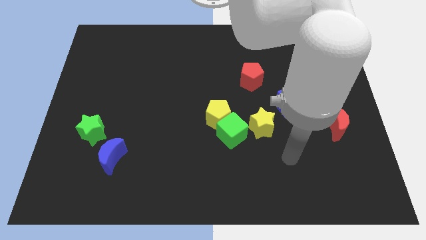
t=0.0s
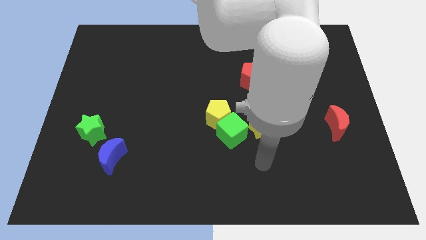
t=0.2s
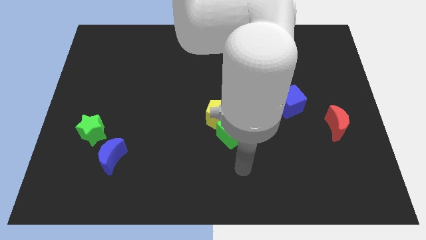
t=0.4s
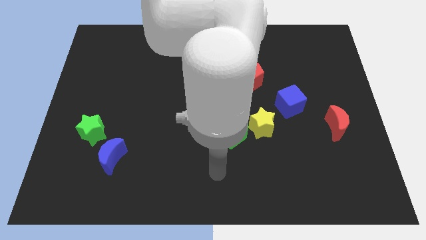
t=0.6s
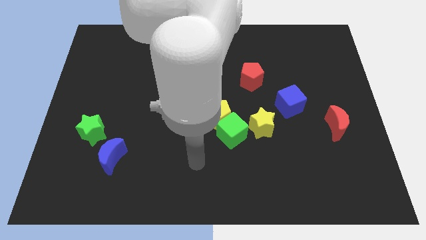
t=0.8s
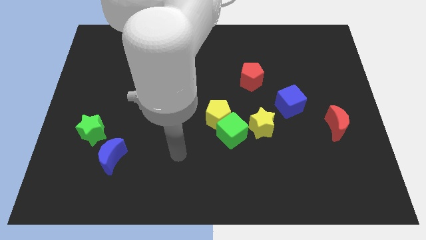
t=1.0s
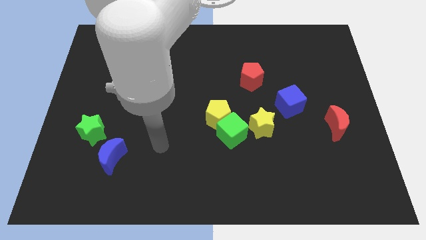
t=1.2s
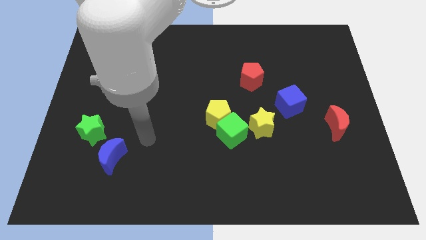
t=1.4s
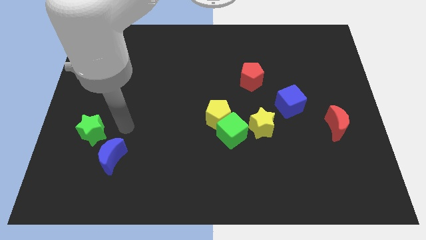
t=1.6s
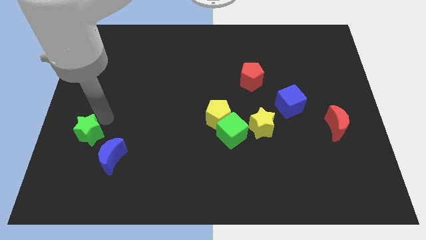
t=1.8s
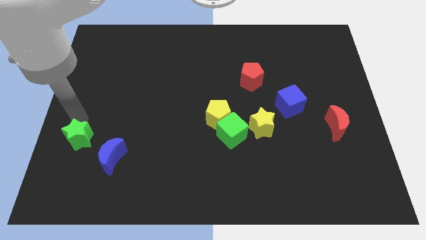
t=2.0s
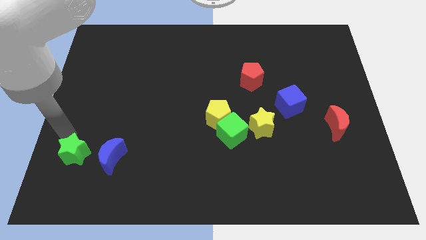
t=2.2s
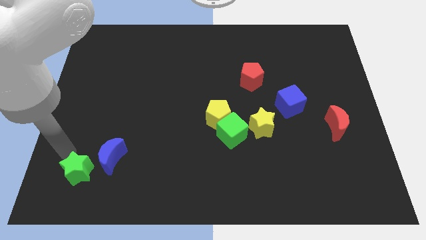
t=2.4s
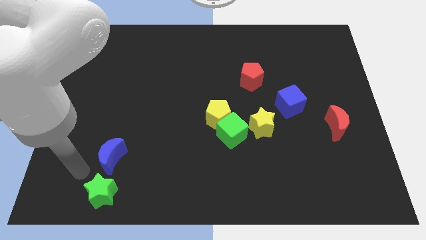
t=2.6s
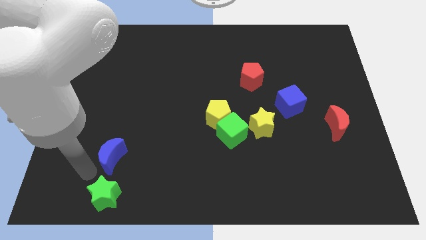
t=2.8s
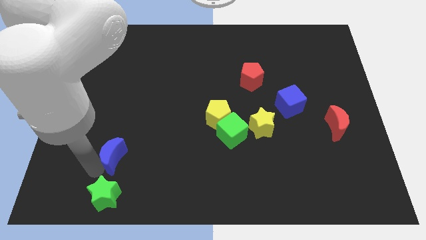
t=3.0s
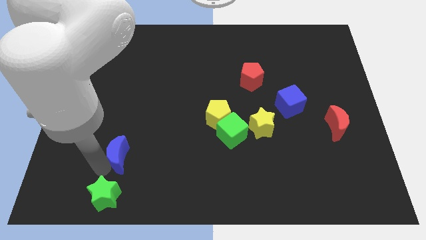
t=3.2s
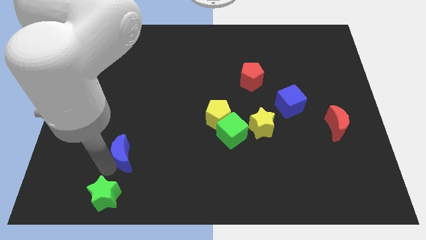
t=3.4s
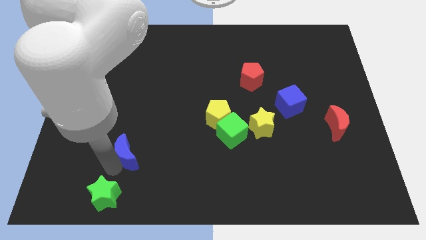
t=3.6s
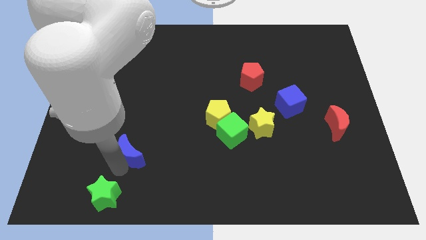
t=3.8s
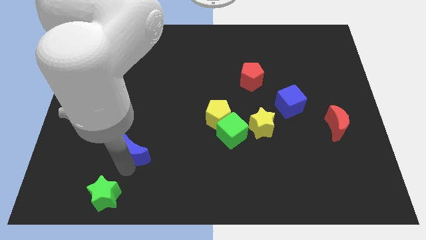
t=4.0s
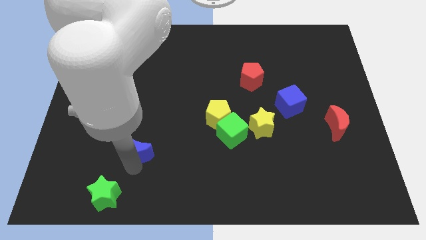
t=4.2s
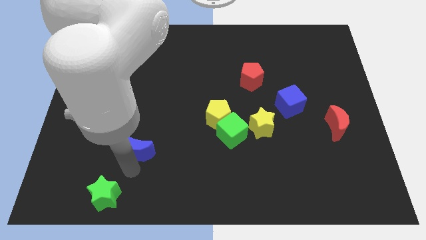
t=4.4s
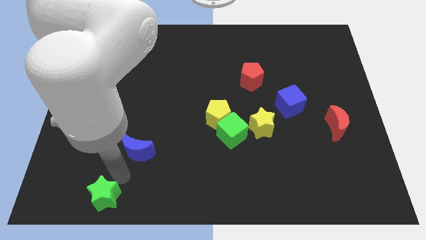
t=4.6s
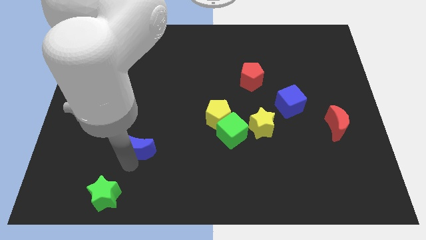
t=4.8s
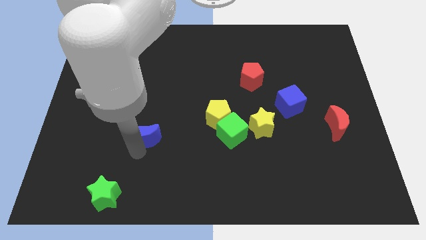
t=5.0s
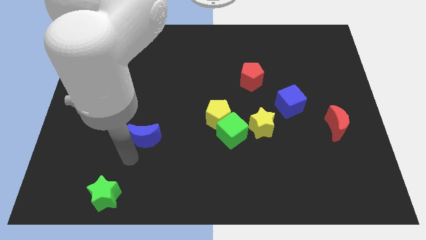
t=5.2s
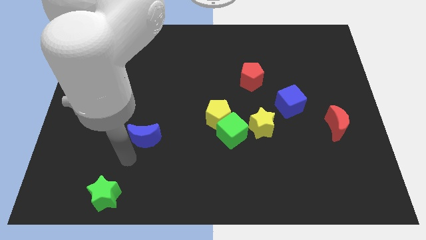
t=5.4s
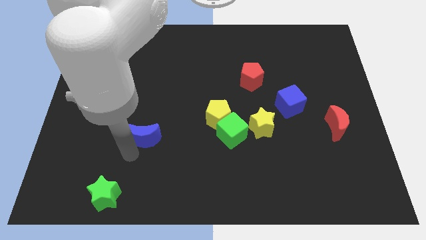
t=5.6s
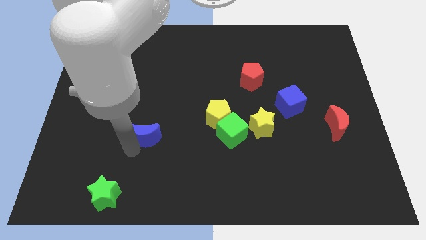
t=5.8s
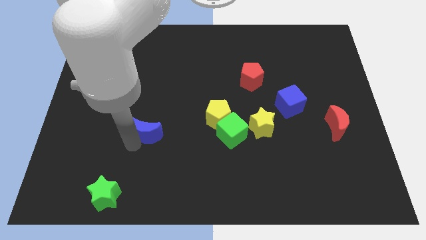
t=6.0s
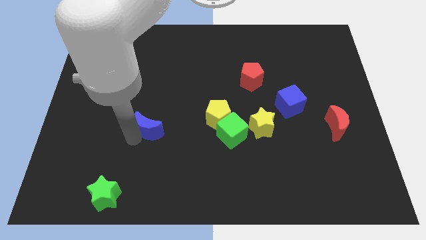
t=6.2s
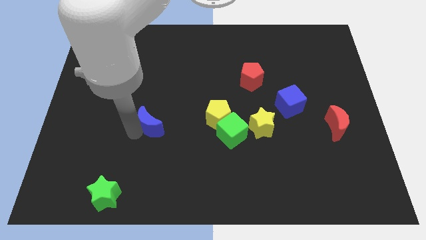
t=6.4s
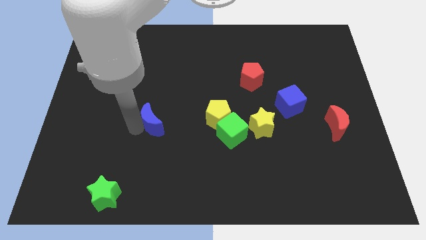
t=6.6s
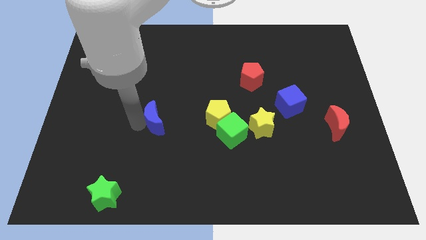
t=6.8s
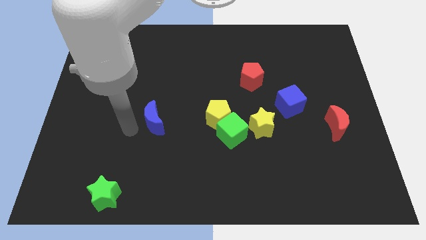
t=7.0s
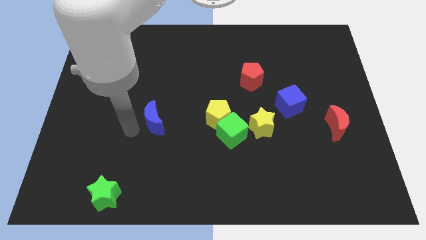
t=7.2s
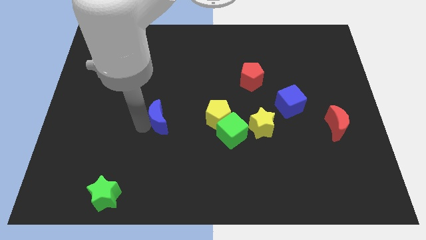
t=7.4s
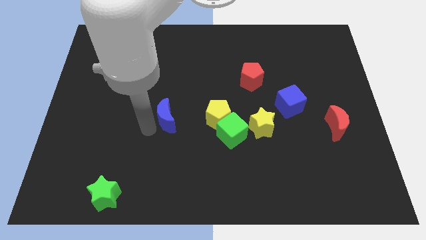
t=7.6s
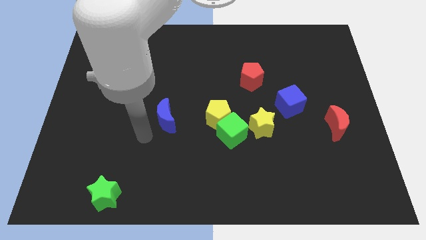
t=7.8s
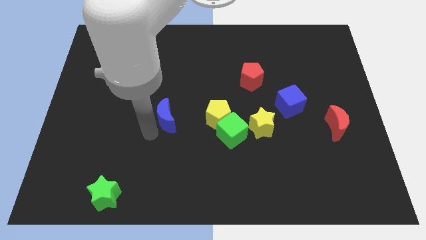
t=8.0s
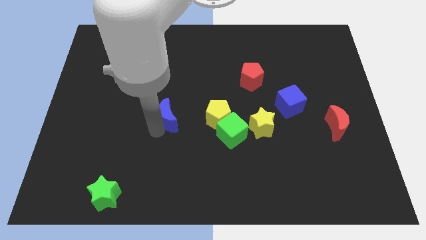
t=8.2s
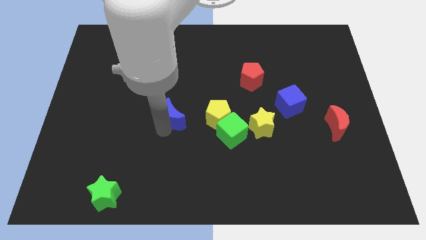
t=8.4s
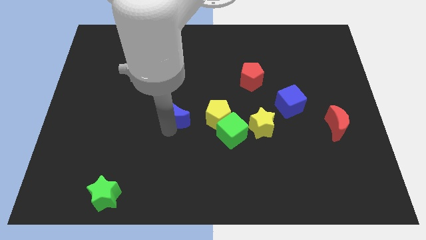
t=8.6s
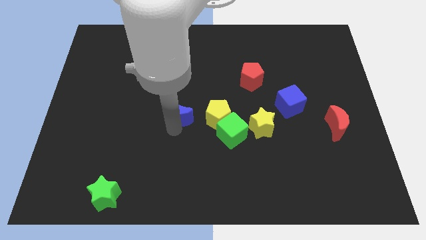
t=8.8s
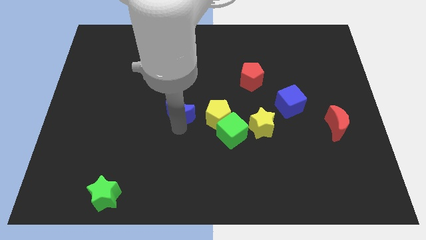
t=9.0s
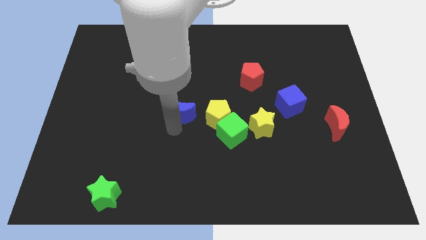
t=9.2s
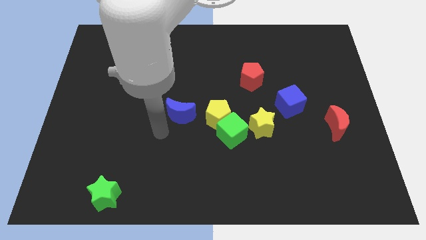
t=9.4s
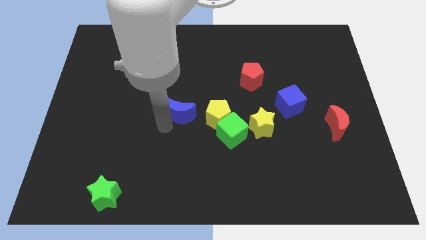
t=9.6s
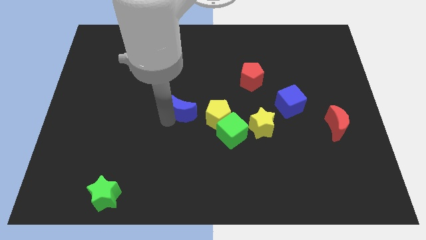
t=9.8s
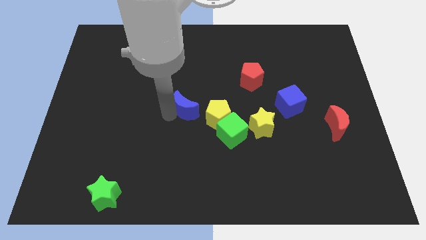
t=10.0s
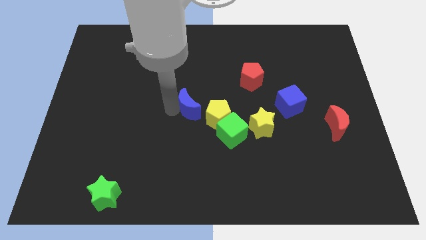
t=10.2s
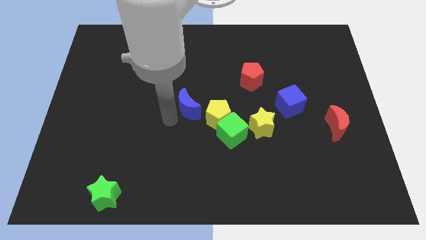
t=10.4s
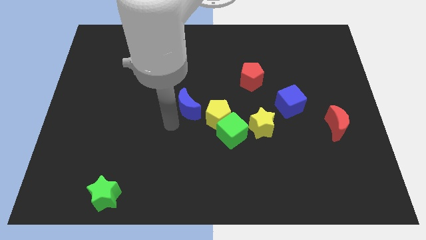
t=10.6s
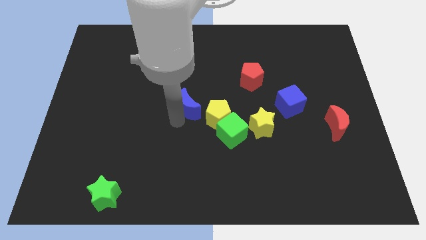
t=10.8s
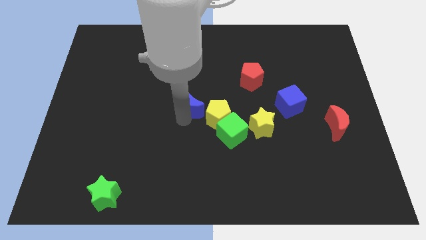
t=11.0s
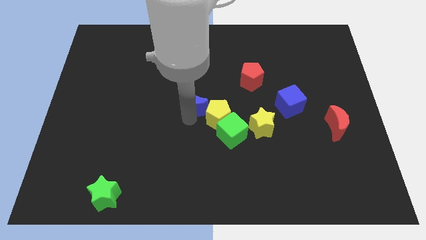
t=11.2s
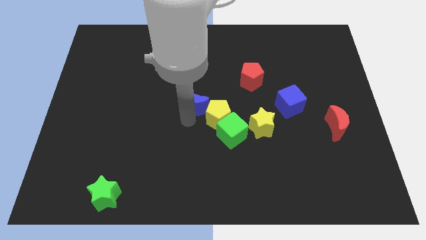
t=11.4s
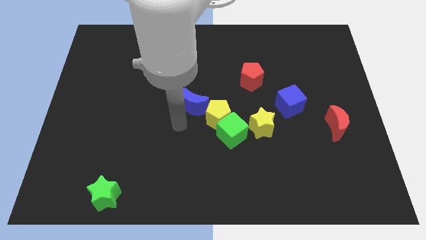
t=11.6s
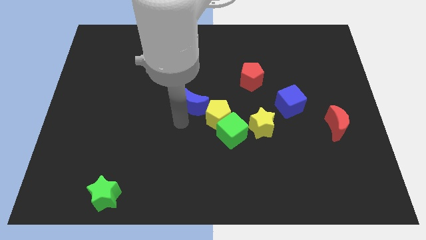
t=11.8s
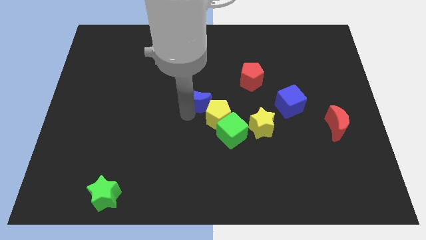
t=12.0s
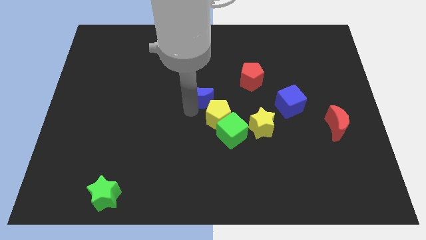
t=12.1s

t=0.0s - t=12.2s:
put the blue moon above the yellow pentagon

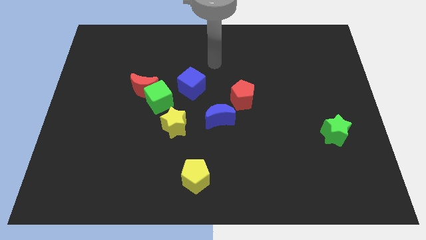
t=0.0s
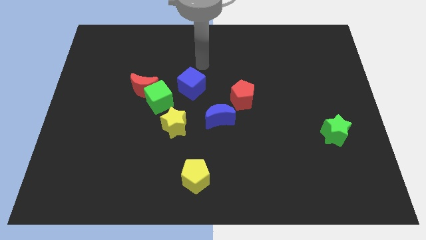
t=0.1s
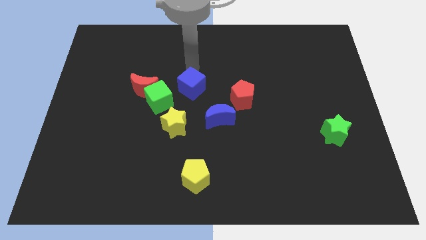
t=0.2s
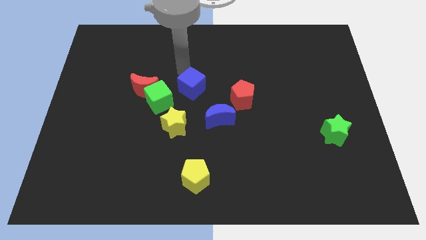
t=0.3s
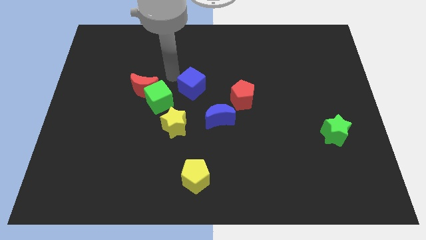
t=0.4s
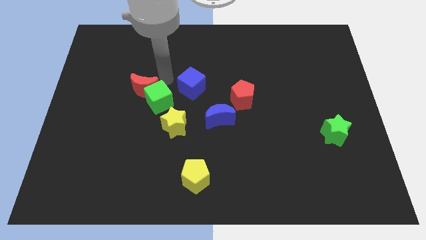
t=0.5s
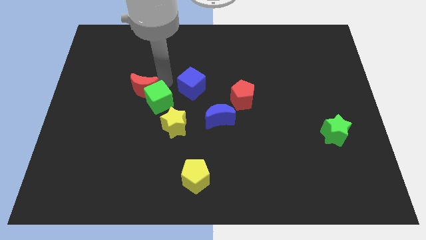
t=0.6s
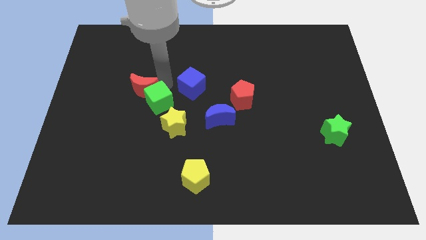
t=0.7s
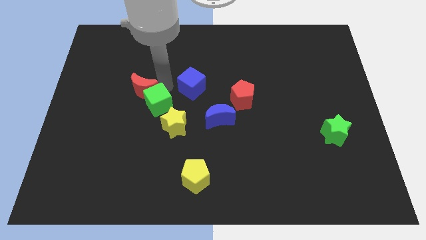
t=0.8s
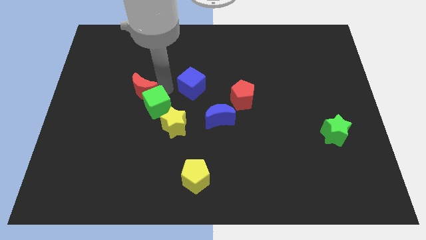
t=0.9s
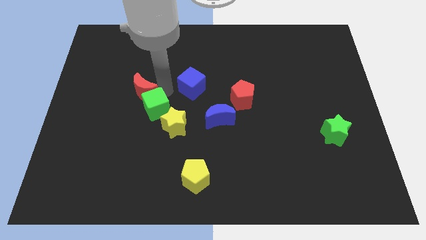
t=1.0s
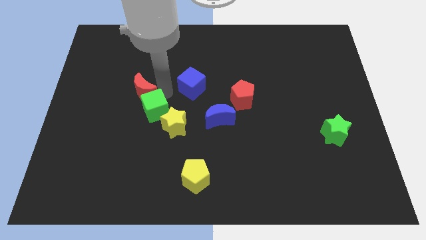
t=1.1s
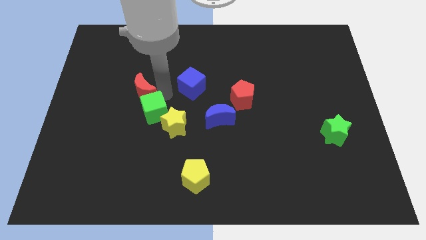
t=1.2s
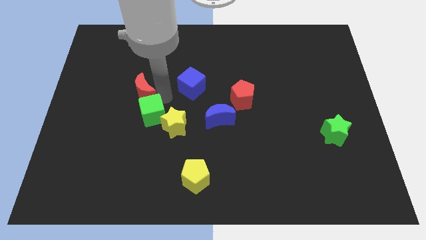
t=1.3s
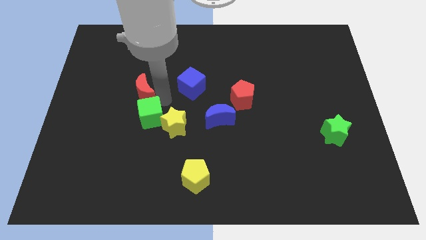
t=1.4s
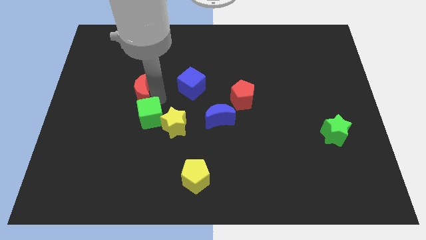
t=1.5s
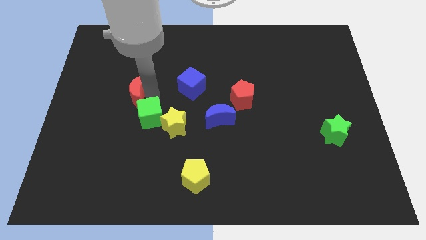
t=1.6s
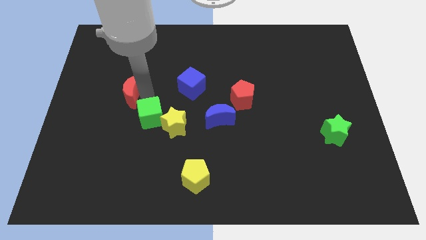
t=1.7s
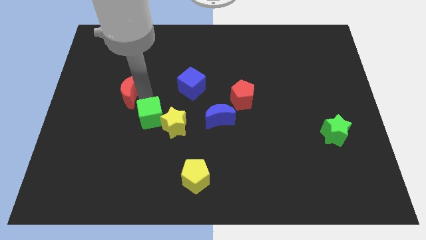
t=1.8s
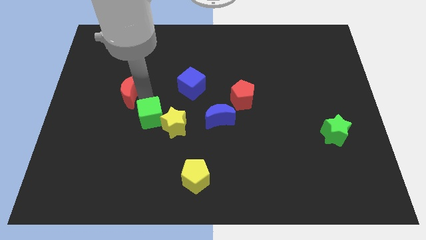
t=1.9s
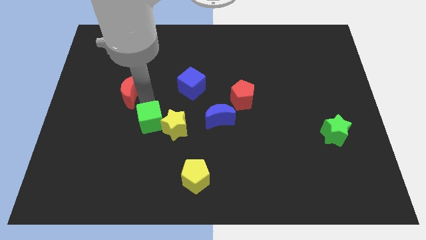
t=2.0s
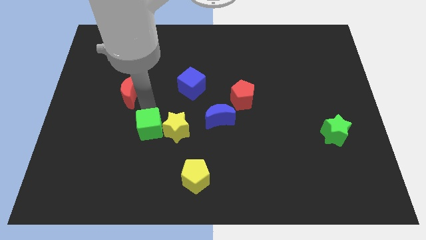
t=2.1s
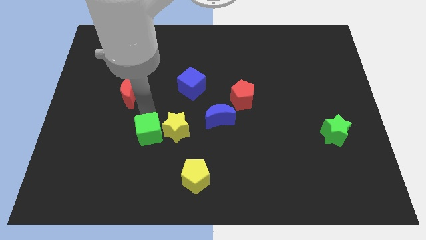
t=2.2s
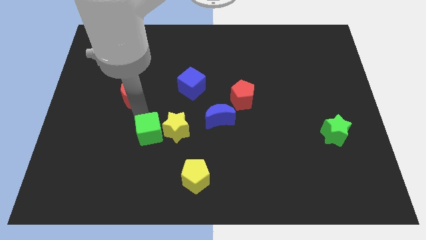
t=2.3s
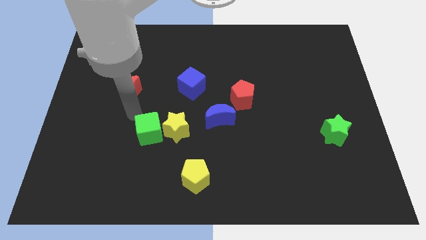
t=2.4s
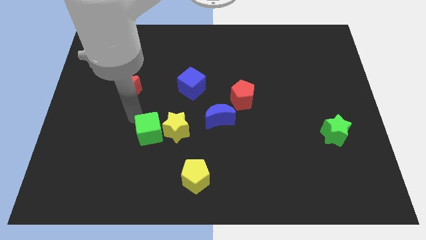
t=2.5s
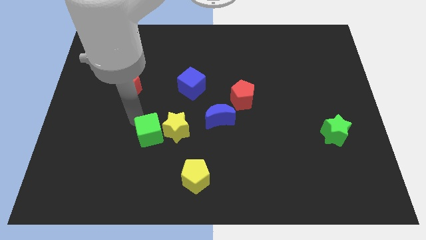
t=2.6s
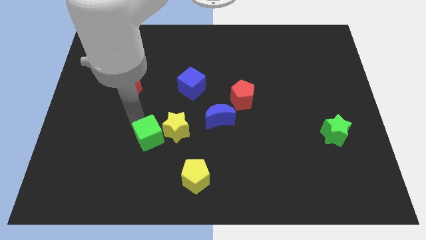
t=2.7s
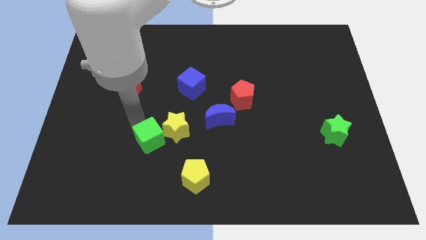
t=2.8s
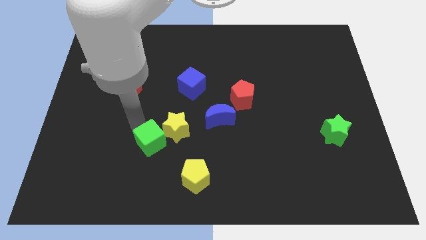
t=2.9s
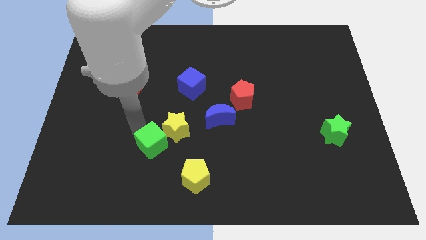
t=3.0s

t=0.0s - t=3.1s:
move the green cube diagonally up and to the left of the yellow pentagon
